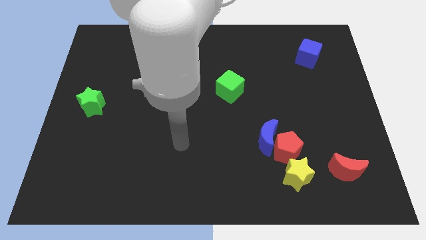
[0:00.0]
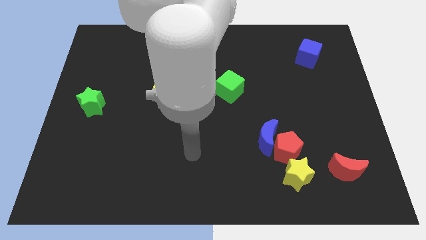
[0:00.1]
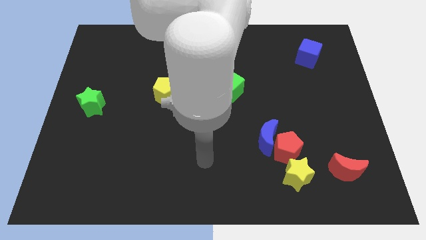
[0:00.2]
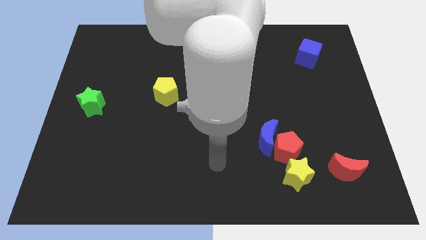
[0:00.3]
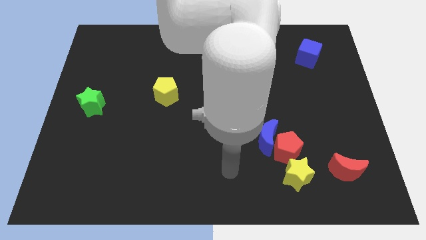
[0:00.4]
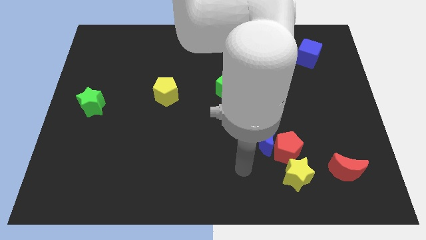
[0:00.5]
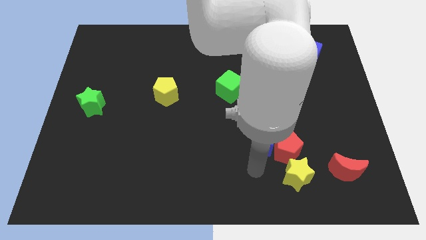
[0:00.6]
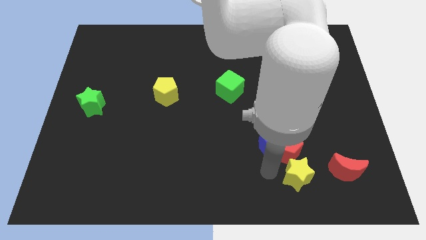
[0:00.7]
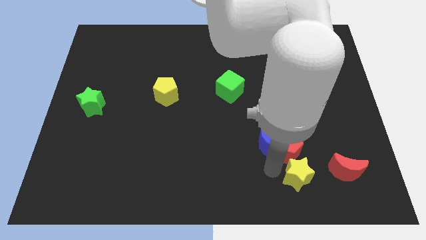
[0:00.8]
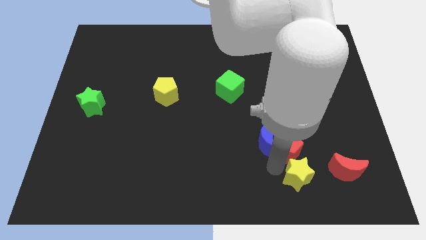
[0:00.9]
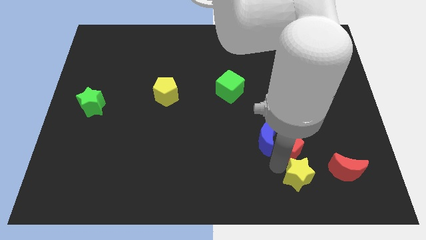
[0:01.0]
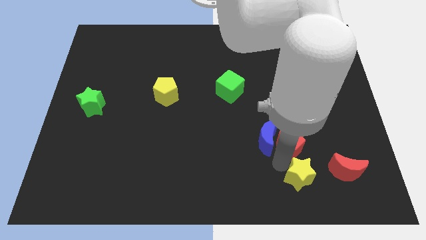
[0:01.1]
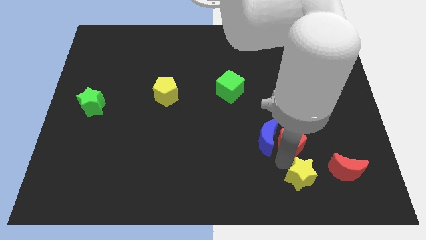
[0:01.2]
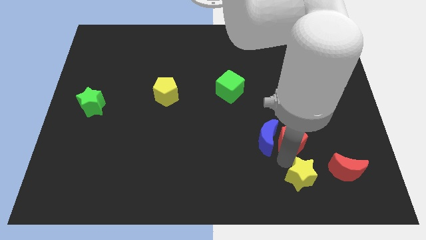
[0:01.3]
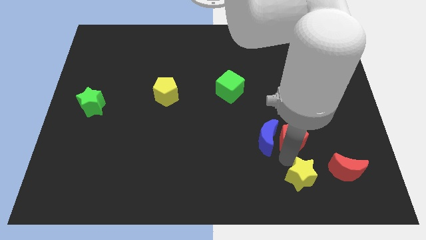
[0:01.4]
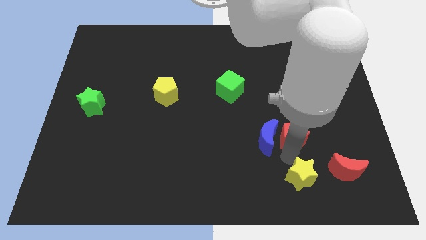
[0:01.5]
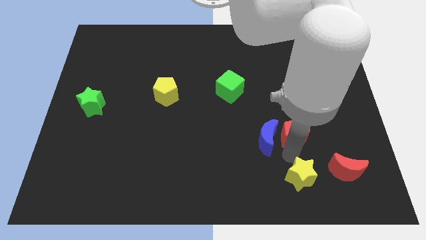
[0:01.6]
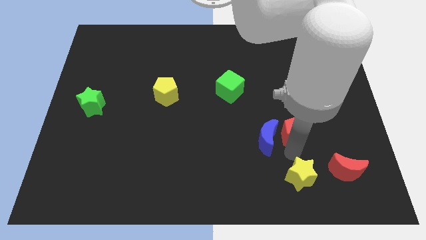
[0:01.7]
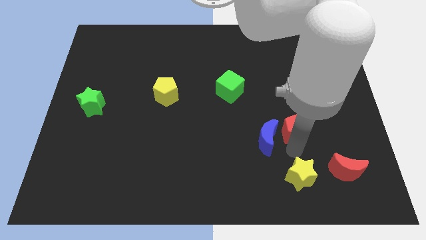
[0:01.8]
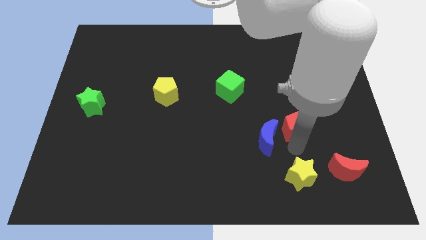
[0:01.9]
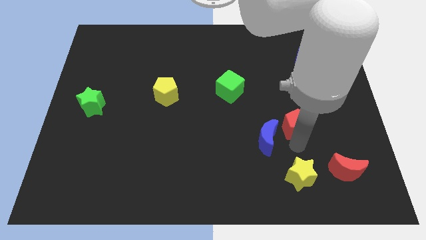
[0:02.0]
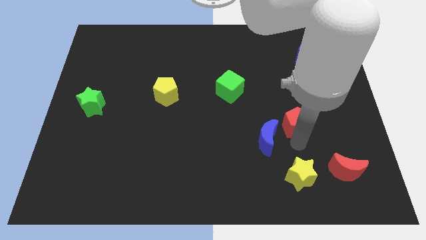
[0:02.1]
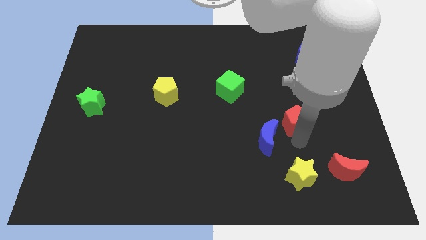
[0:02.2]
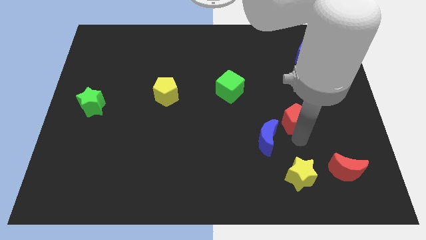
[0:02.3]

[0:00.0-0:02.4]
move the red pentagon away from the blue moon and yellow star

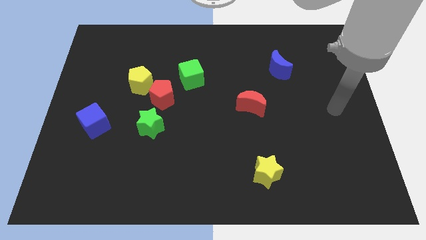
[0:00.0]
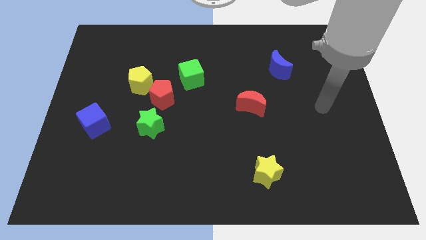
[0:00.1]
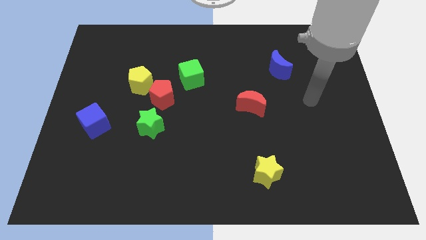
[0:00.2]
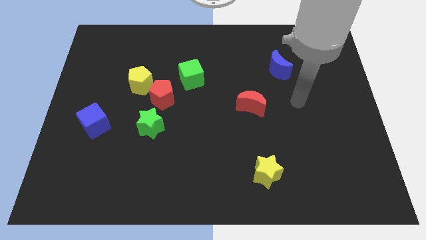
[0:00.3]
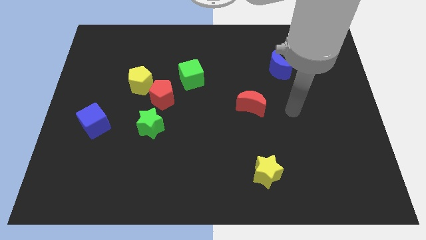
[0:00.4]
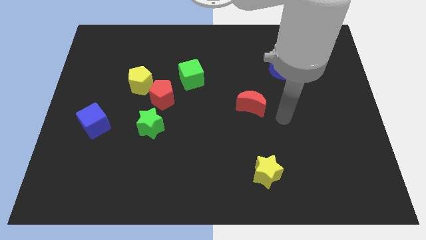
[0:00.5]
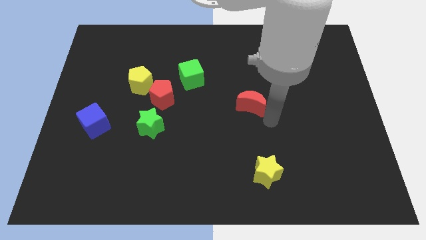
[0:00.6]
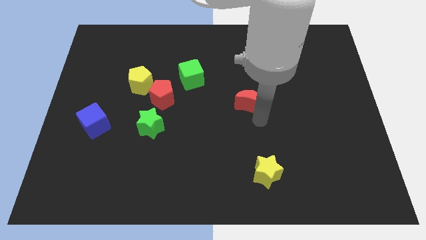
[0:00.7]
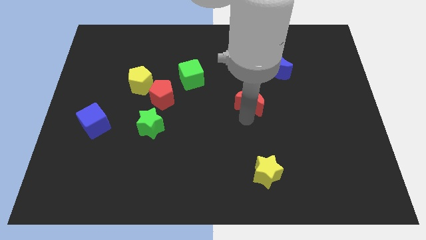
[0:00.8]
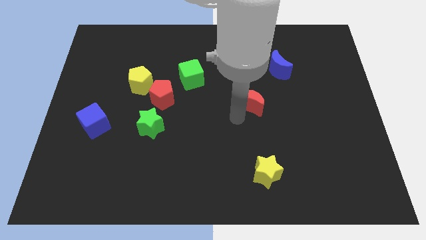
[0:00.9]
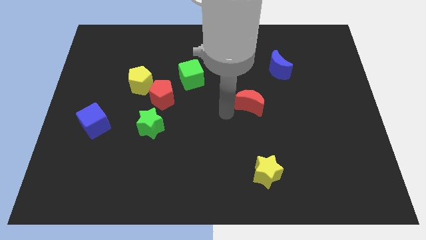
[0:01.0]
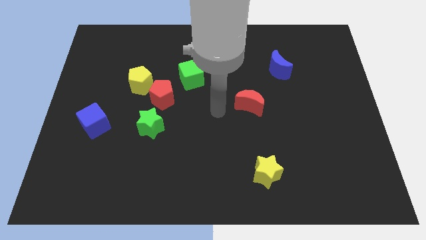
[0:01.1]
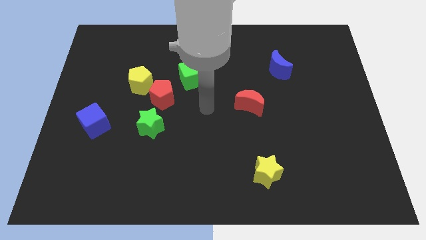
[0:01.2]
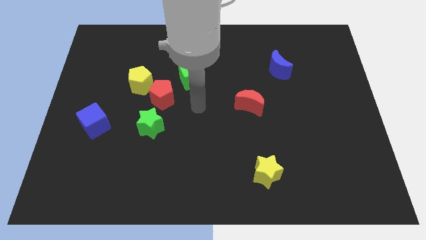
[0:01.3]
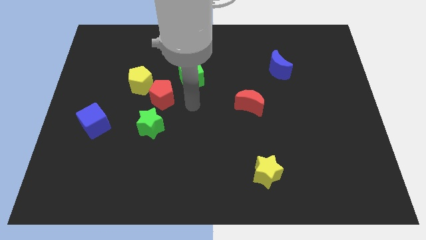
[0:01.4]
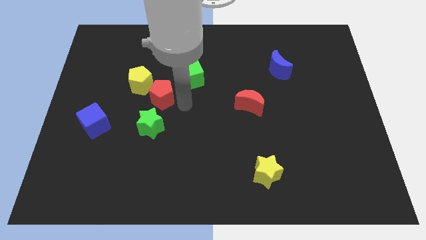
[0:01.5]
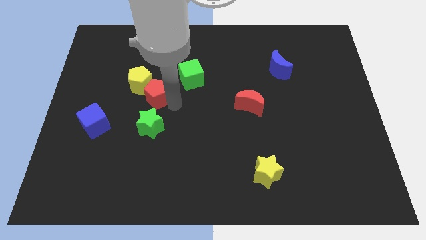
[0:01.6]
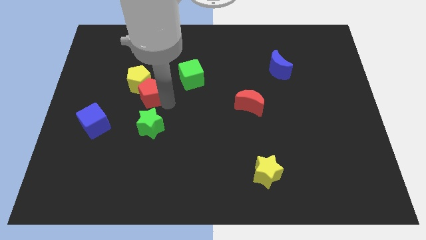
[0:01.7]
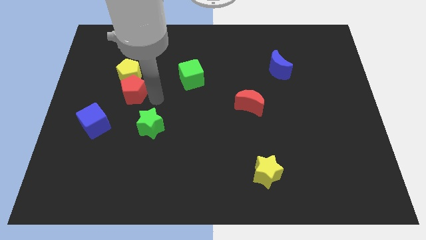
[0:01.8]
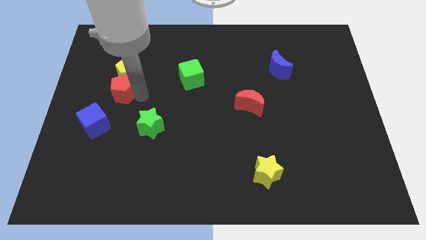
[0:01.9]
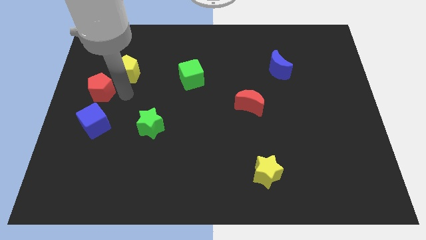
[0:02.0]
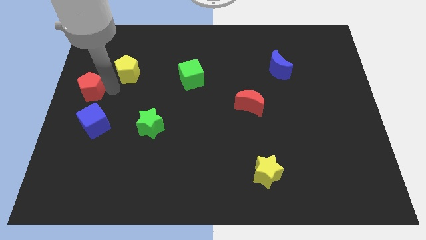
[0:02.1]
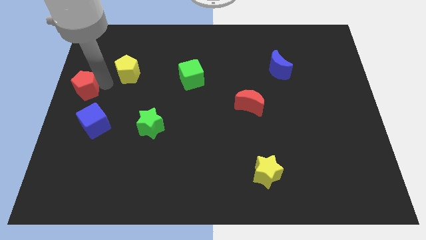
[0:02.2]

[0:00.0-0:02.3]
separate the yellow pentagon from the red pentagon

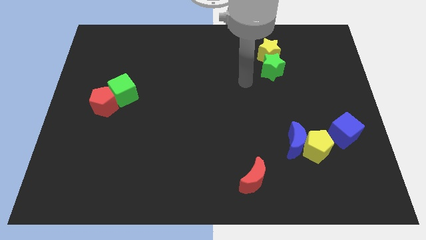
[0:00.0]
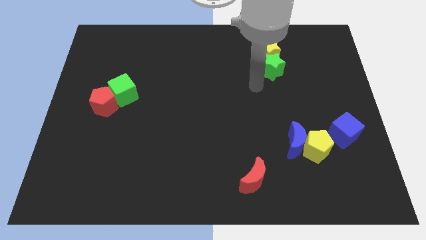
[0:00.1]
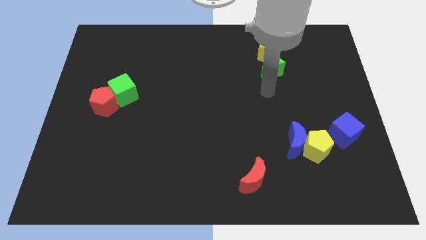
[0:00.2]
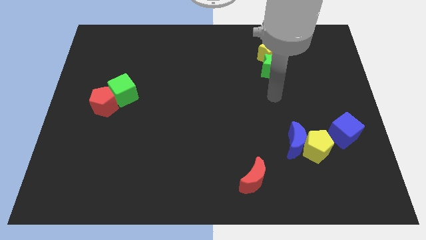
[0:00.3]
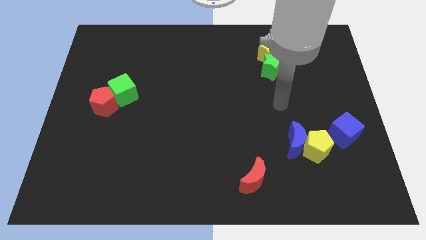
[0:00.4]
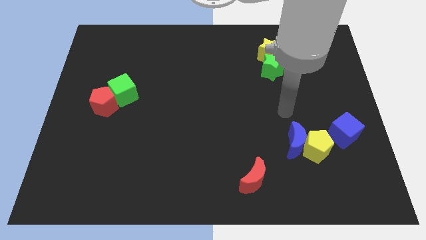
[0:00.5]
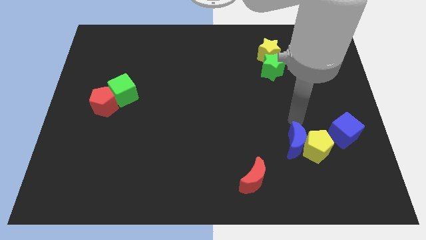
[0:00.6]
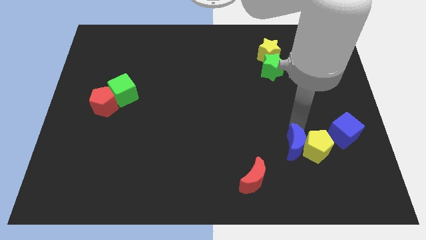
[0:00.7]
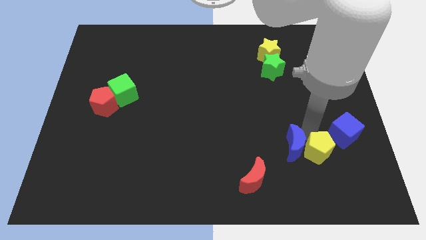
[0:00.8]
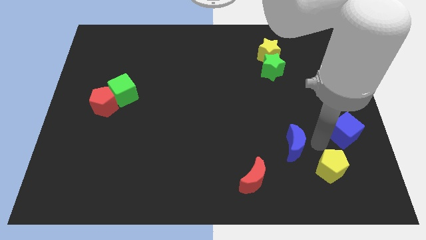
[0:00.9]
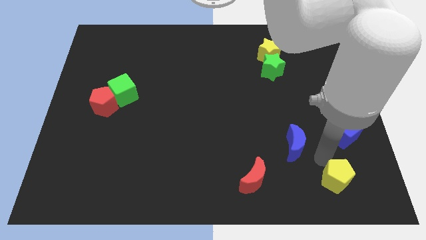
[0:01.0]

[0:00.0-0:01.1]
pull the blue moon apart from the yellow pentagon

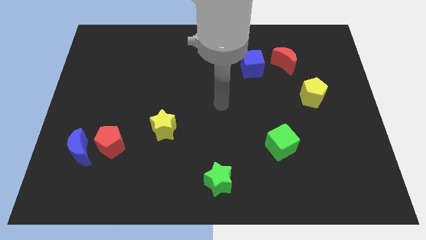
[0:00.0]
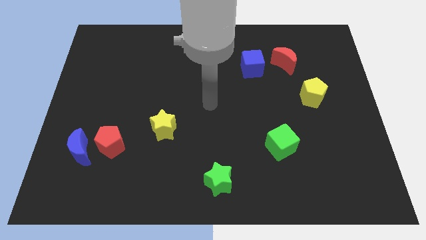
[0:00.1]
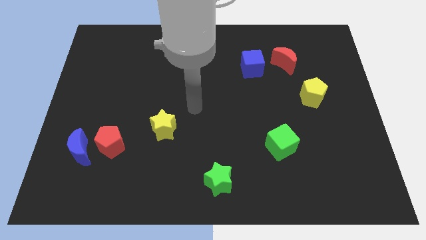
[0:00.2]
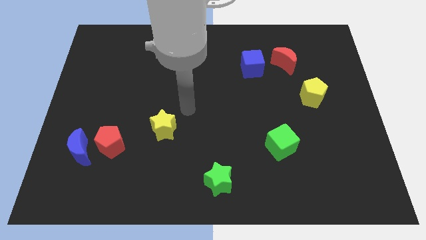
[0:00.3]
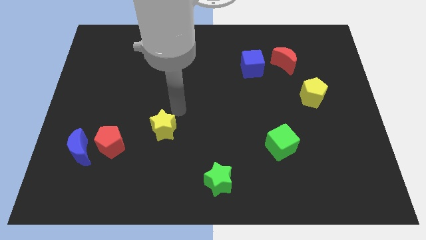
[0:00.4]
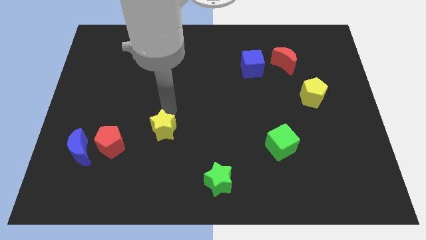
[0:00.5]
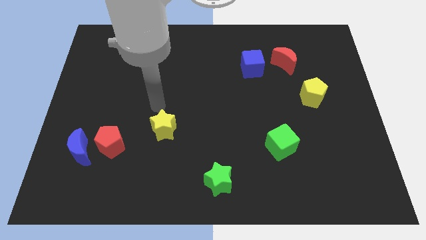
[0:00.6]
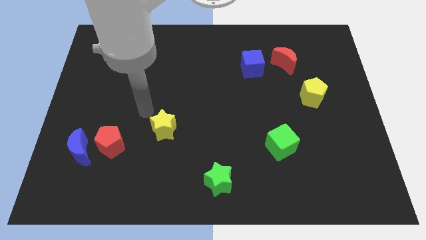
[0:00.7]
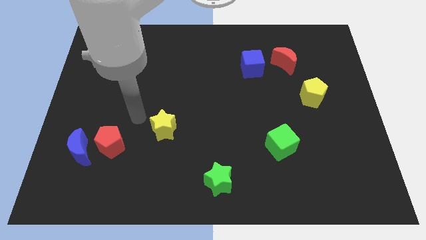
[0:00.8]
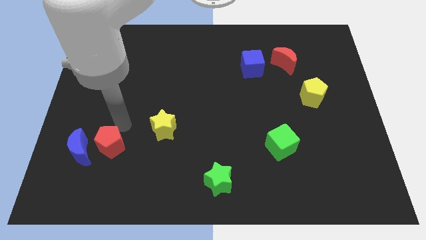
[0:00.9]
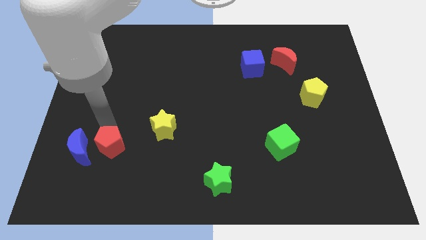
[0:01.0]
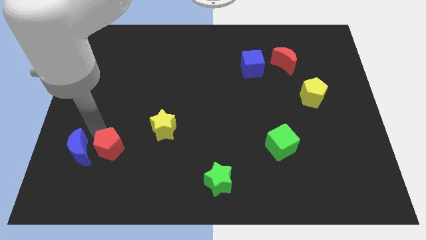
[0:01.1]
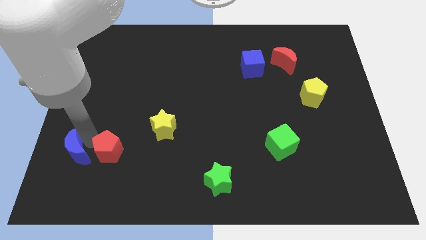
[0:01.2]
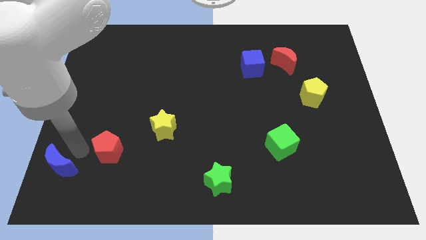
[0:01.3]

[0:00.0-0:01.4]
move the red pentagon away from the blue moon

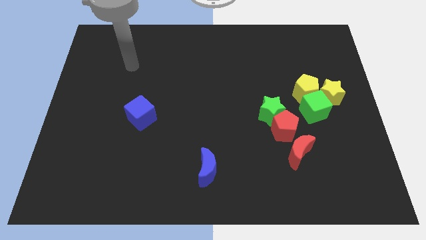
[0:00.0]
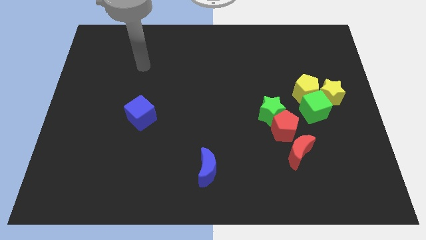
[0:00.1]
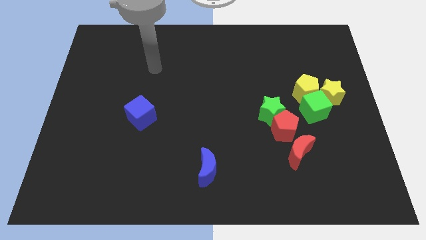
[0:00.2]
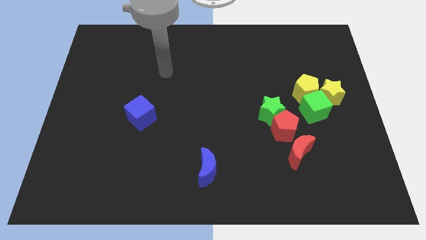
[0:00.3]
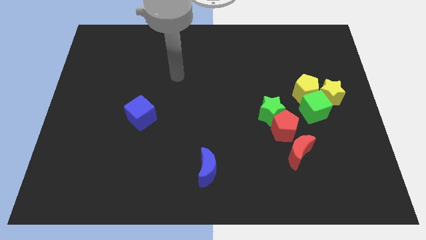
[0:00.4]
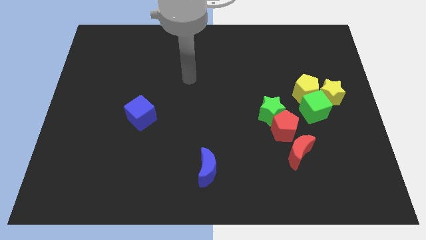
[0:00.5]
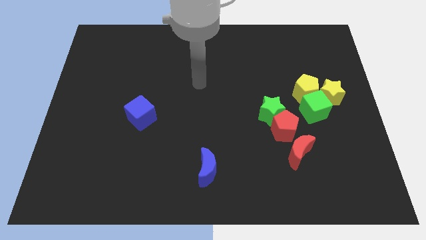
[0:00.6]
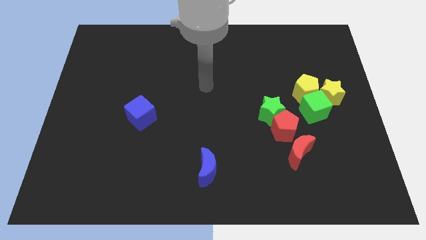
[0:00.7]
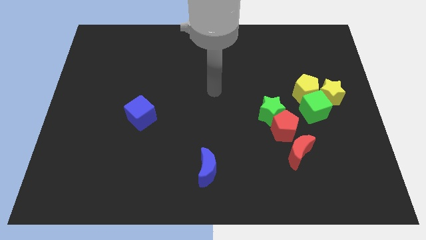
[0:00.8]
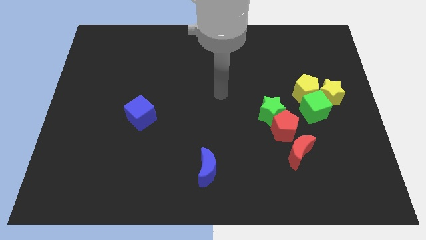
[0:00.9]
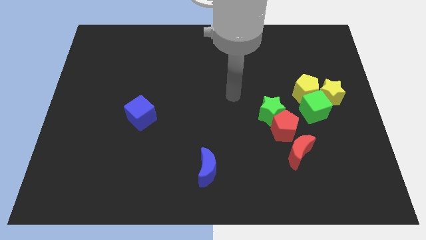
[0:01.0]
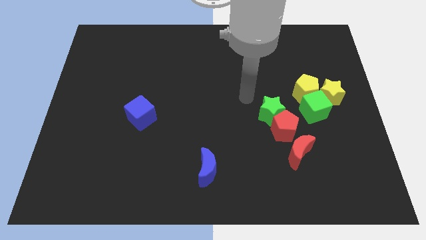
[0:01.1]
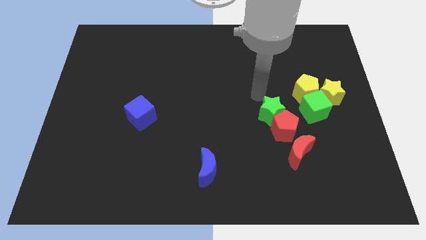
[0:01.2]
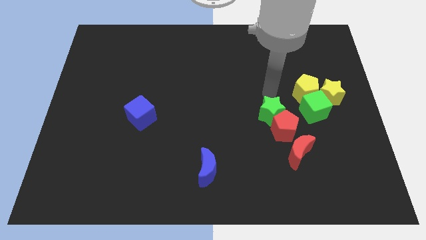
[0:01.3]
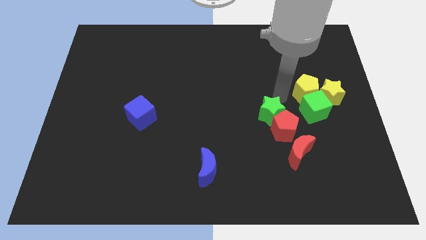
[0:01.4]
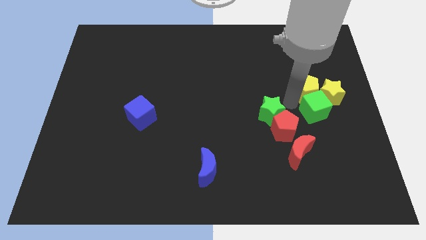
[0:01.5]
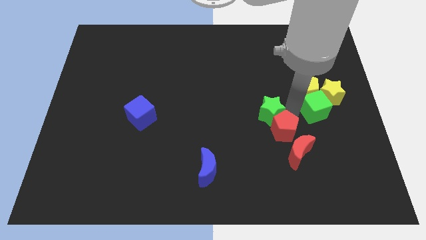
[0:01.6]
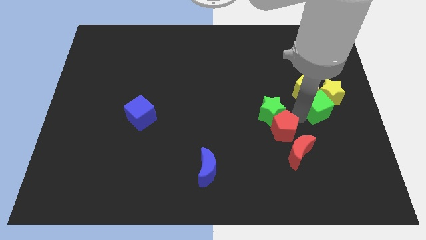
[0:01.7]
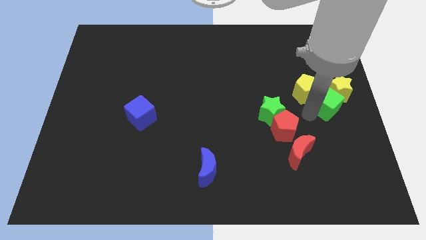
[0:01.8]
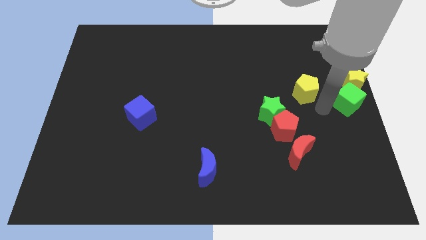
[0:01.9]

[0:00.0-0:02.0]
separate the yellow pentagon from the green cube and yellow star
